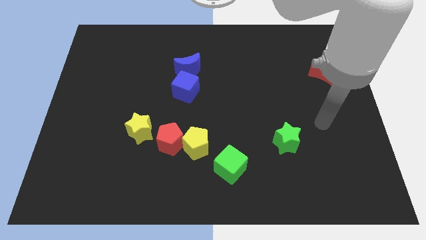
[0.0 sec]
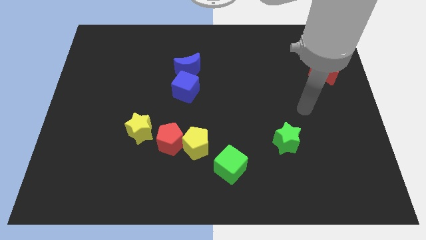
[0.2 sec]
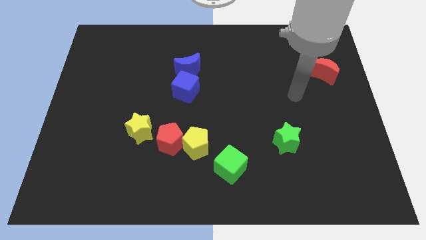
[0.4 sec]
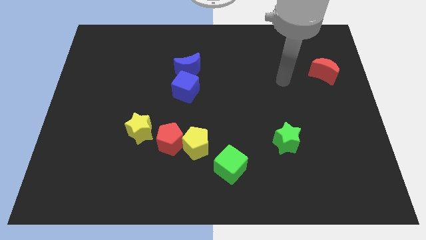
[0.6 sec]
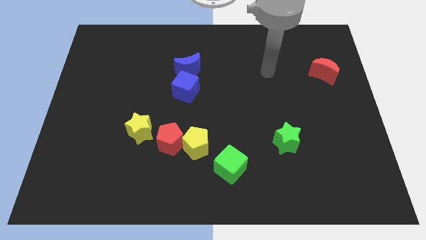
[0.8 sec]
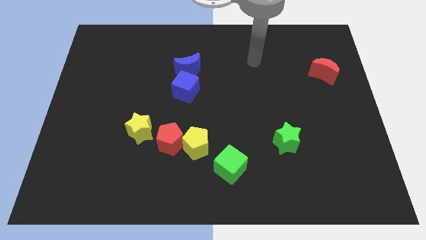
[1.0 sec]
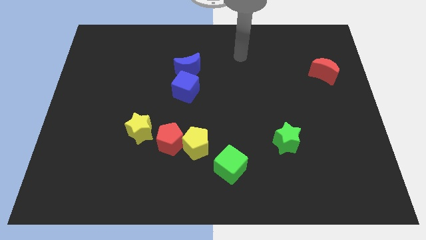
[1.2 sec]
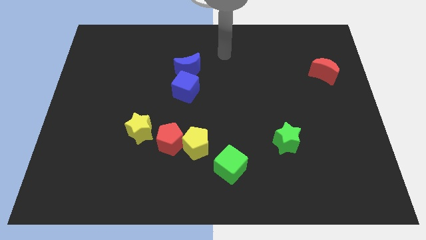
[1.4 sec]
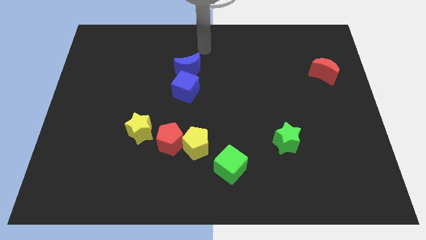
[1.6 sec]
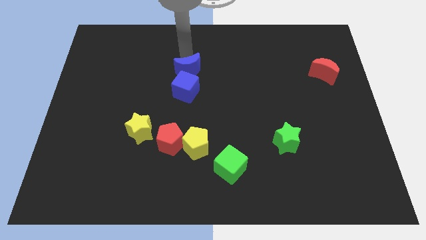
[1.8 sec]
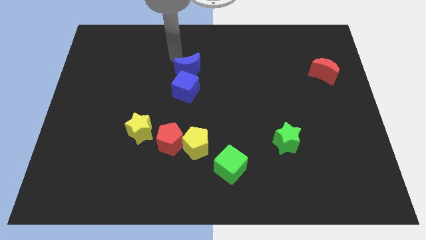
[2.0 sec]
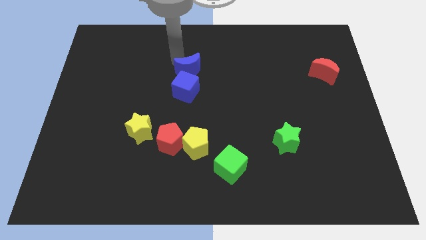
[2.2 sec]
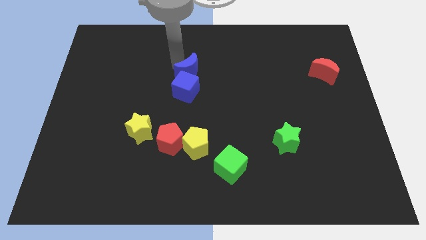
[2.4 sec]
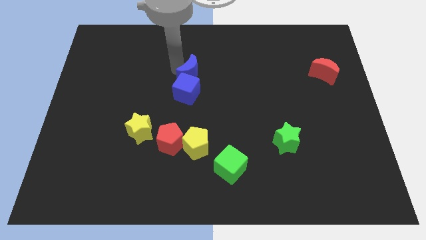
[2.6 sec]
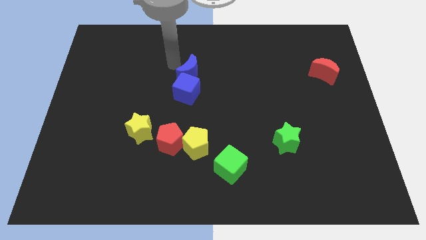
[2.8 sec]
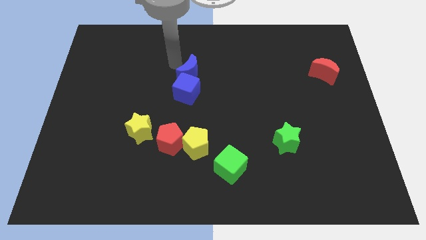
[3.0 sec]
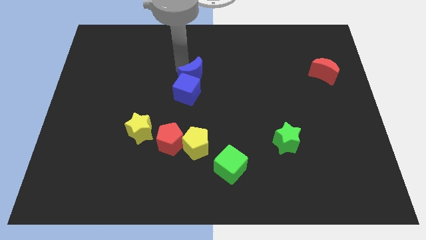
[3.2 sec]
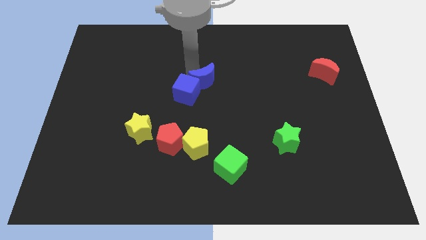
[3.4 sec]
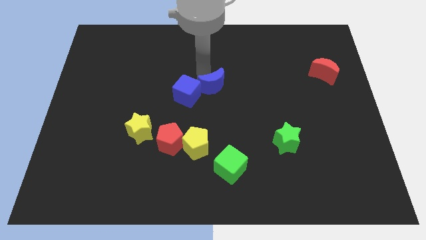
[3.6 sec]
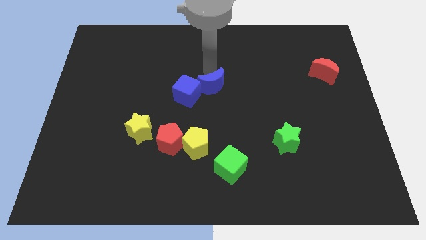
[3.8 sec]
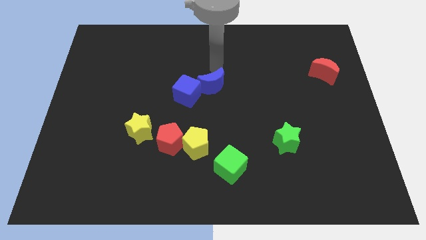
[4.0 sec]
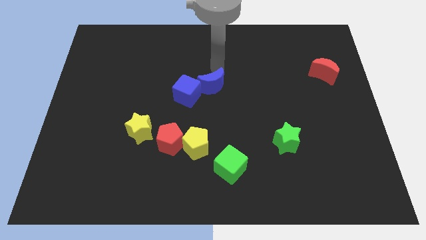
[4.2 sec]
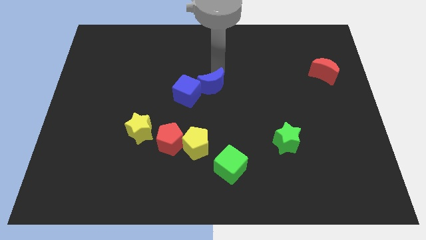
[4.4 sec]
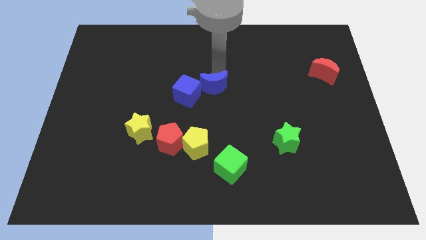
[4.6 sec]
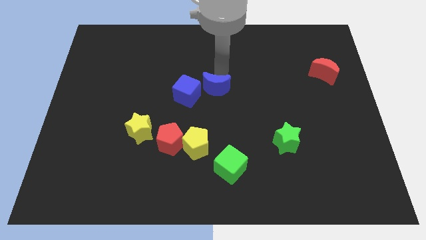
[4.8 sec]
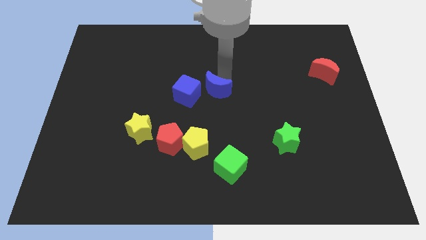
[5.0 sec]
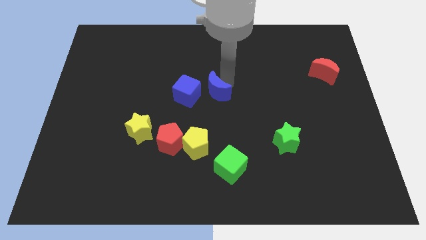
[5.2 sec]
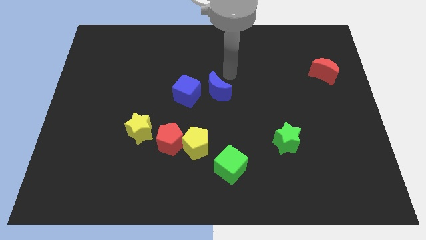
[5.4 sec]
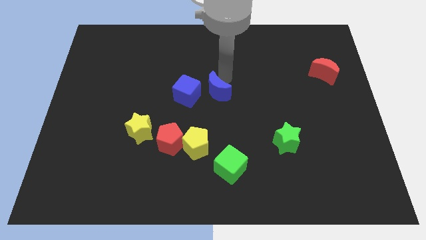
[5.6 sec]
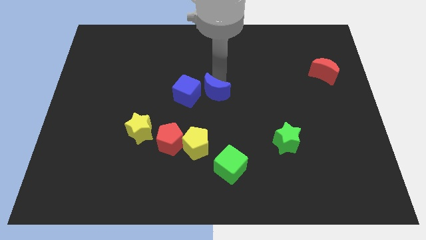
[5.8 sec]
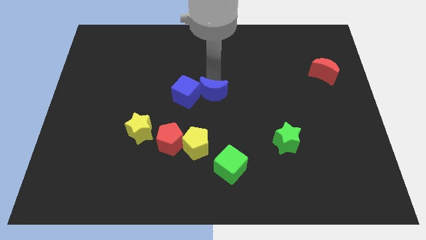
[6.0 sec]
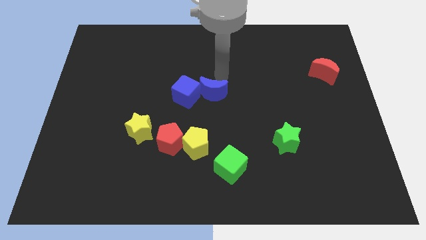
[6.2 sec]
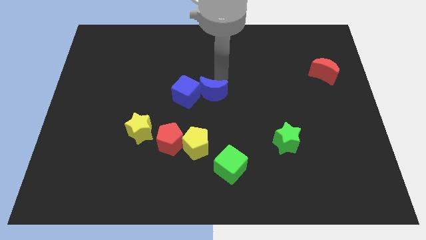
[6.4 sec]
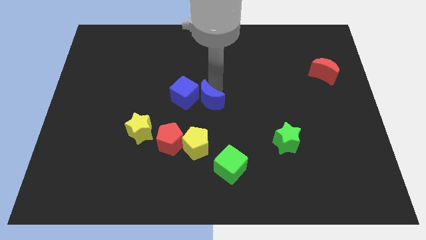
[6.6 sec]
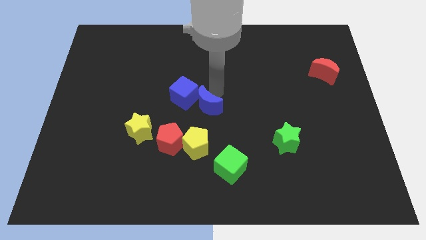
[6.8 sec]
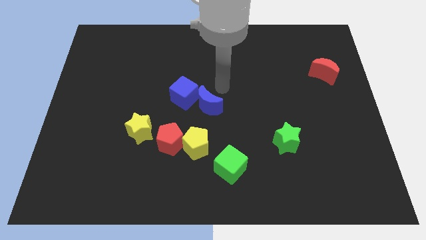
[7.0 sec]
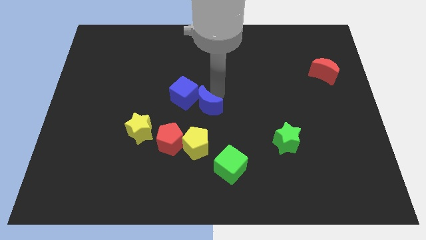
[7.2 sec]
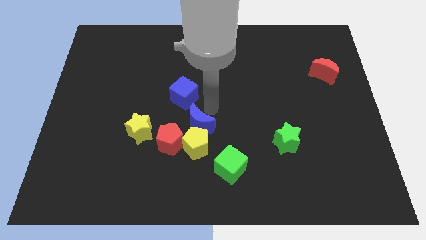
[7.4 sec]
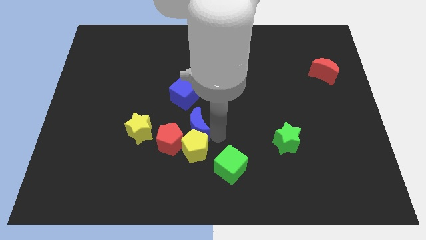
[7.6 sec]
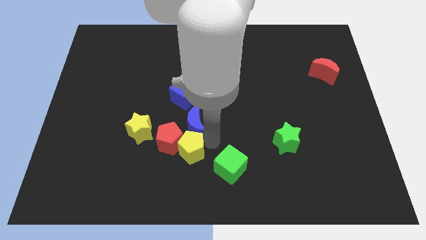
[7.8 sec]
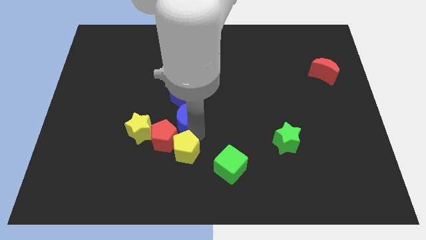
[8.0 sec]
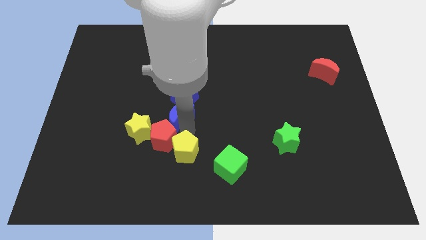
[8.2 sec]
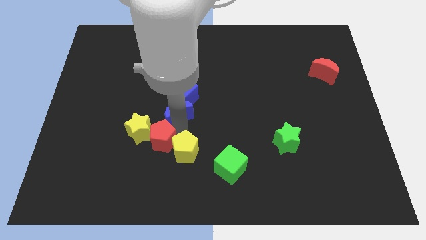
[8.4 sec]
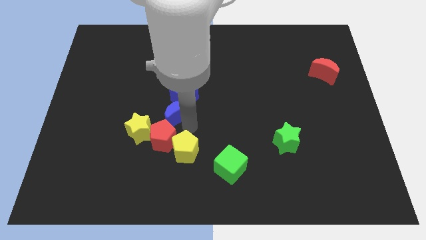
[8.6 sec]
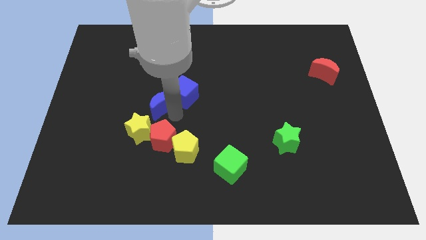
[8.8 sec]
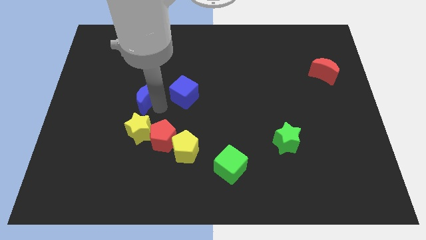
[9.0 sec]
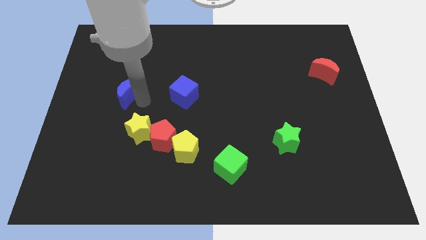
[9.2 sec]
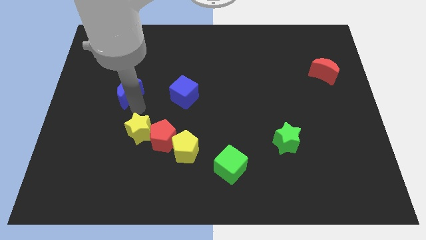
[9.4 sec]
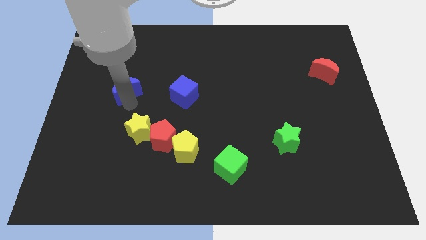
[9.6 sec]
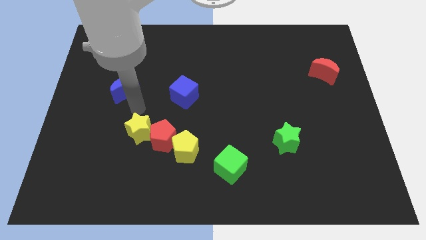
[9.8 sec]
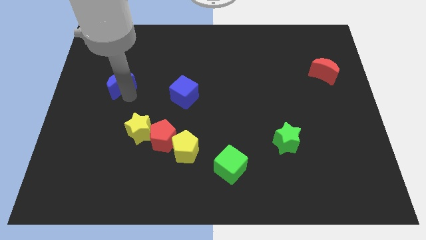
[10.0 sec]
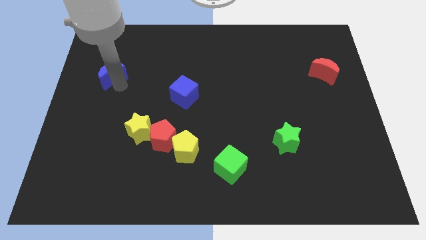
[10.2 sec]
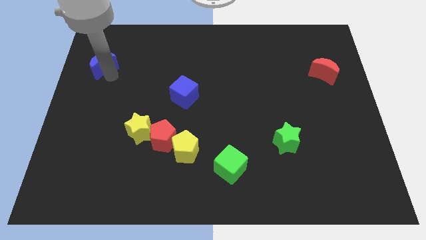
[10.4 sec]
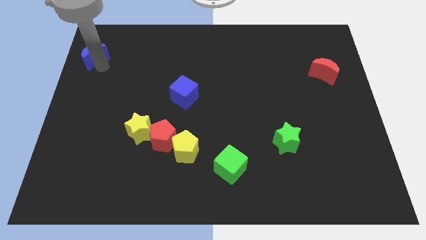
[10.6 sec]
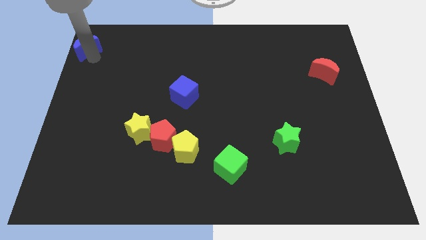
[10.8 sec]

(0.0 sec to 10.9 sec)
move the blue moon to the top left corner

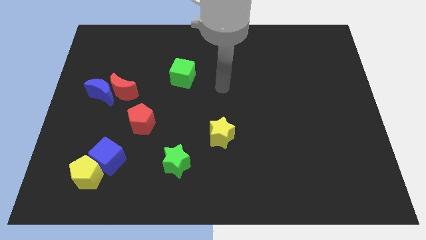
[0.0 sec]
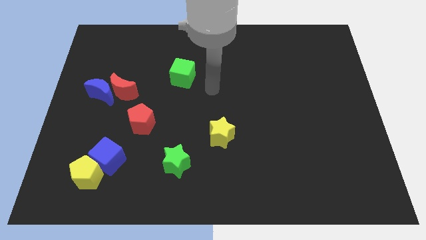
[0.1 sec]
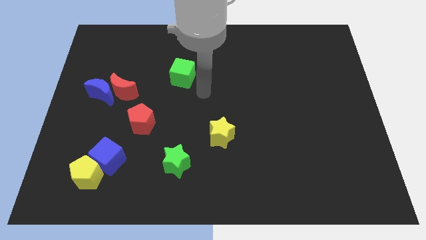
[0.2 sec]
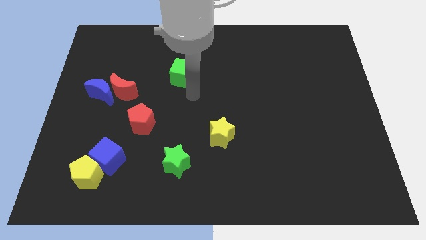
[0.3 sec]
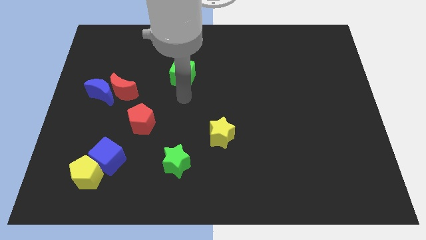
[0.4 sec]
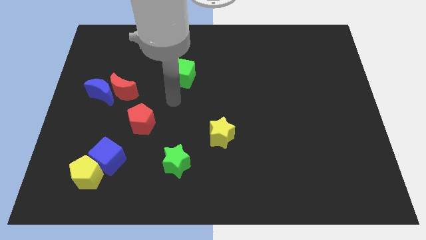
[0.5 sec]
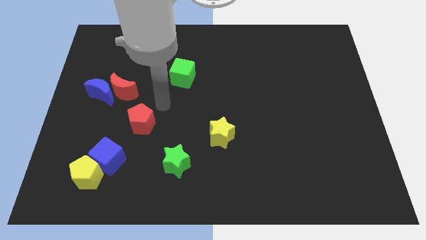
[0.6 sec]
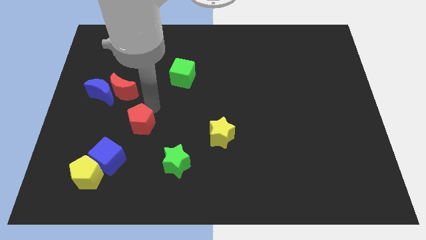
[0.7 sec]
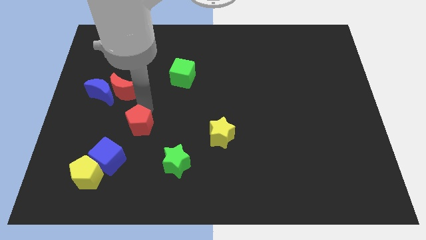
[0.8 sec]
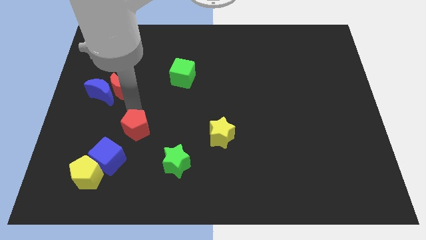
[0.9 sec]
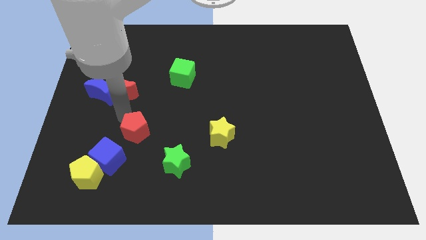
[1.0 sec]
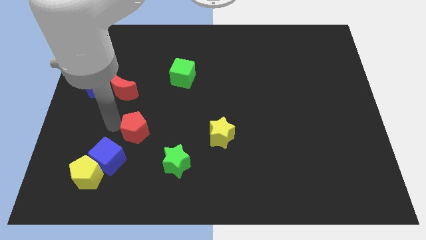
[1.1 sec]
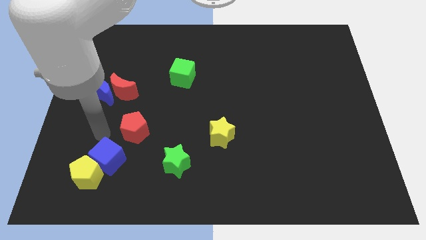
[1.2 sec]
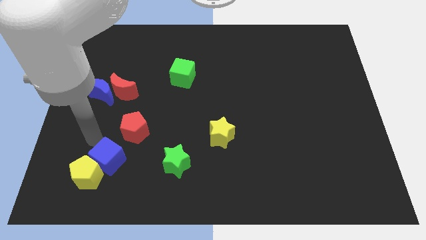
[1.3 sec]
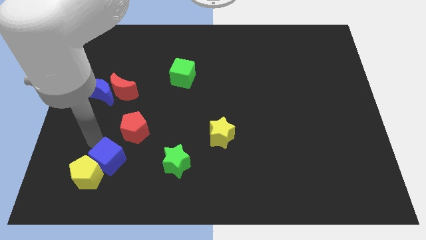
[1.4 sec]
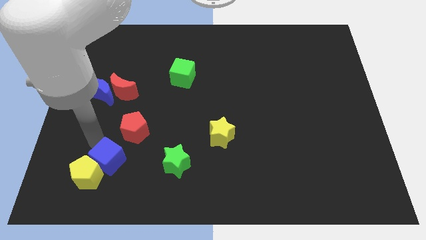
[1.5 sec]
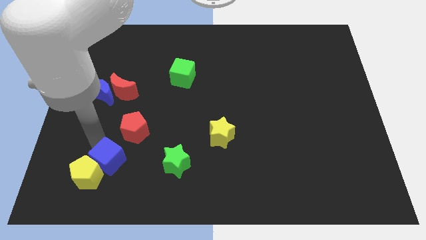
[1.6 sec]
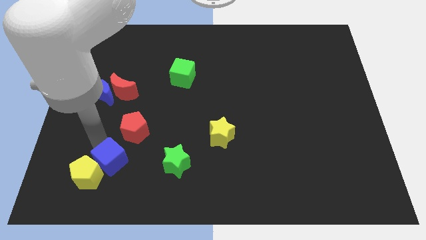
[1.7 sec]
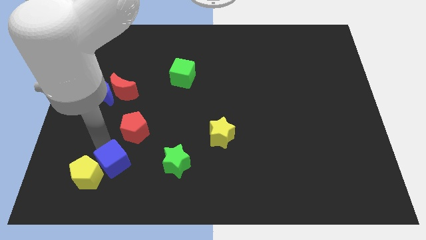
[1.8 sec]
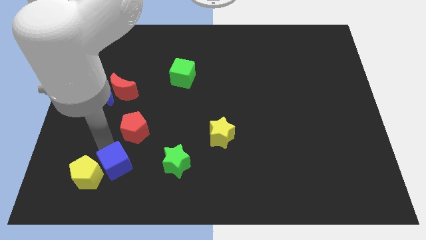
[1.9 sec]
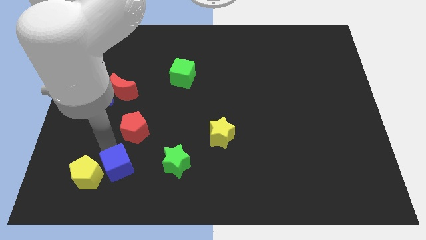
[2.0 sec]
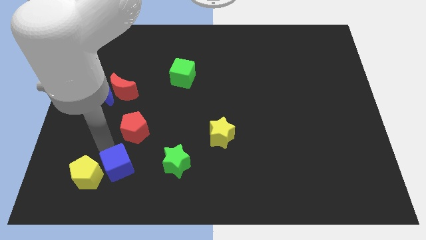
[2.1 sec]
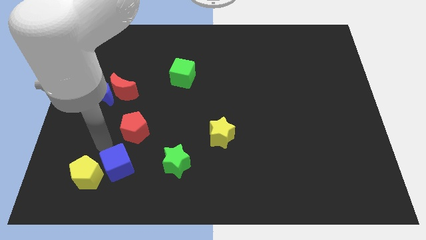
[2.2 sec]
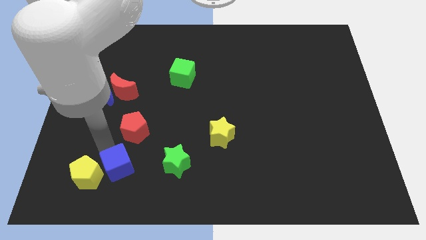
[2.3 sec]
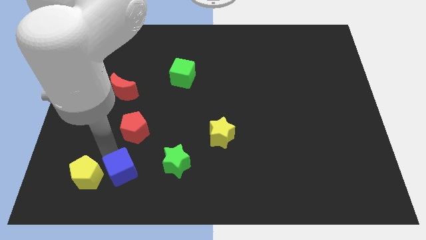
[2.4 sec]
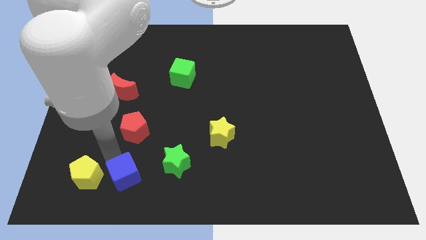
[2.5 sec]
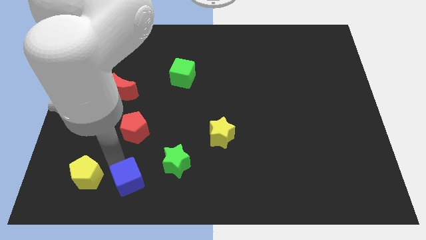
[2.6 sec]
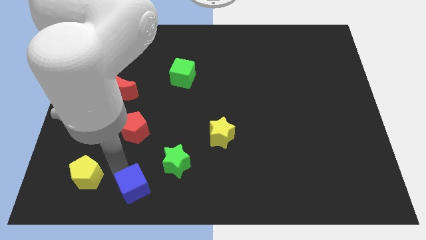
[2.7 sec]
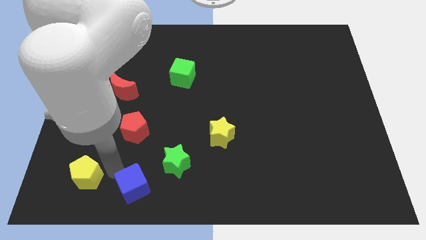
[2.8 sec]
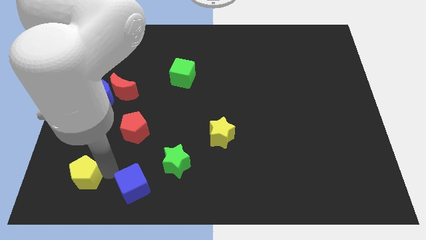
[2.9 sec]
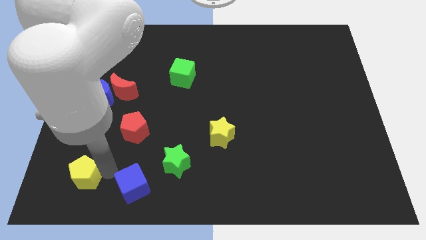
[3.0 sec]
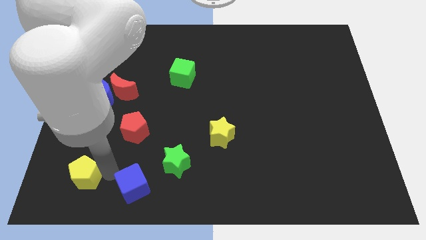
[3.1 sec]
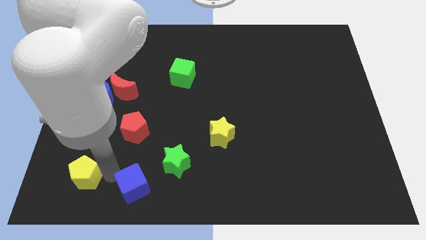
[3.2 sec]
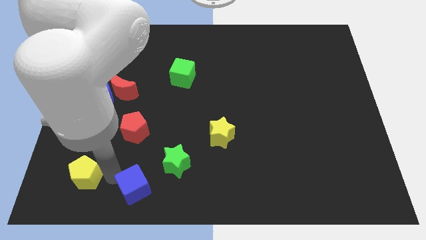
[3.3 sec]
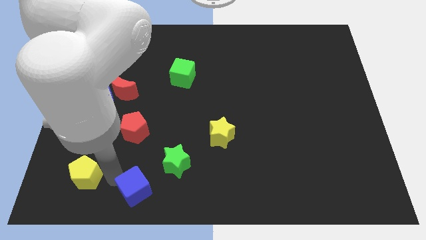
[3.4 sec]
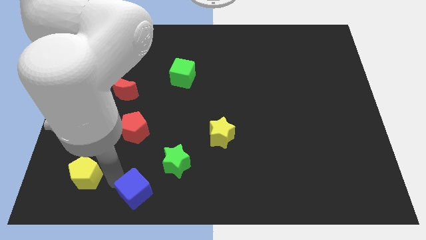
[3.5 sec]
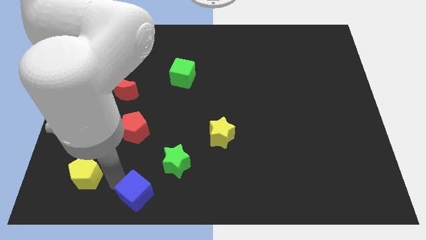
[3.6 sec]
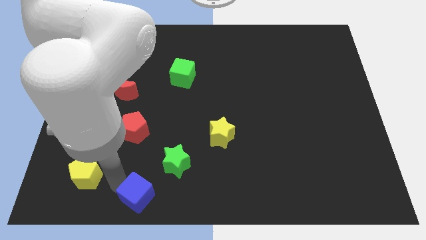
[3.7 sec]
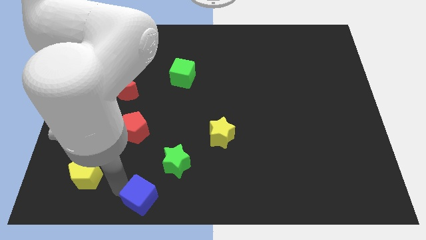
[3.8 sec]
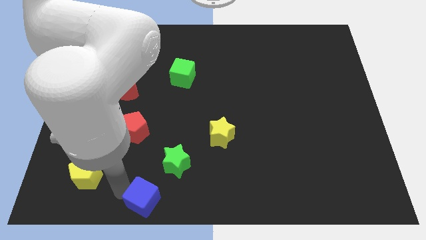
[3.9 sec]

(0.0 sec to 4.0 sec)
push the blue cube to the bottom
